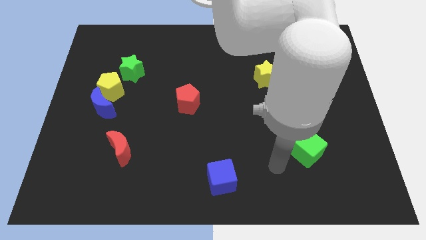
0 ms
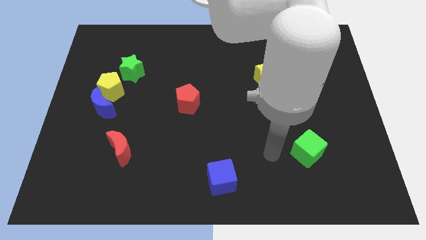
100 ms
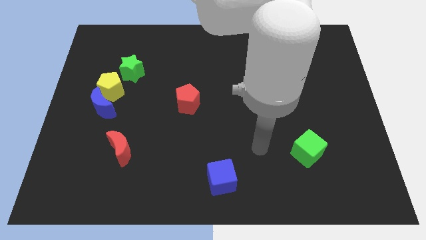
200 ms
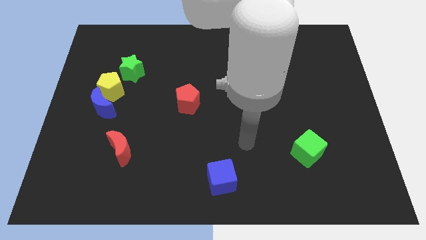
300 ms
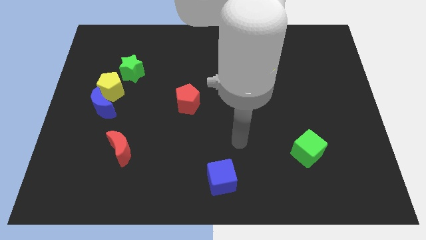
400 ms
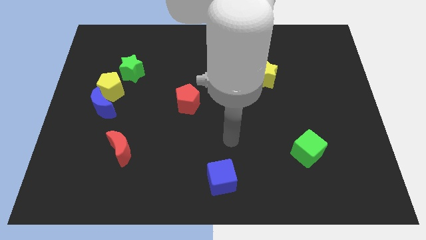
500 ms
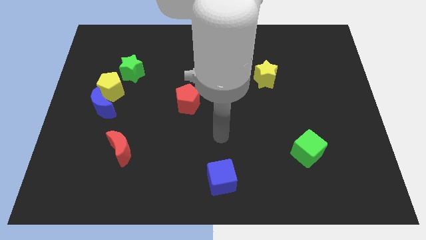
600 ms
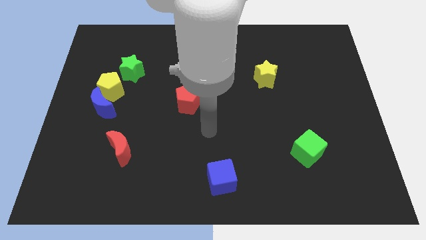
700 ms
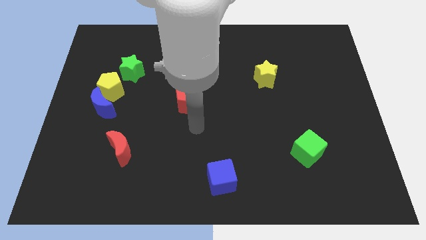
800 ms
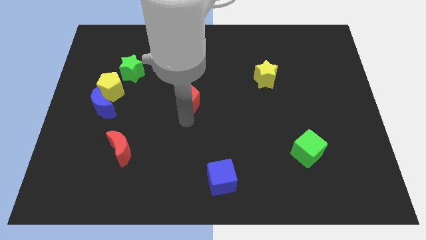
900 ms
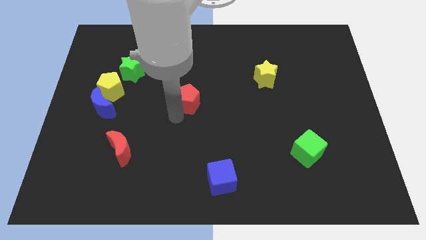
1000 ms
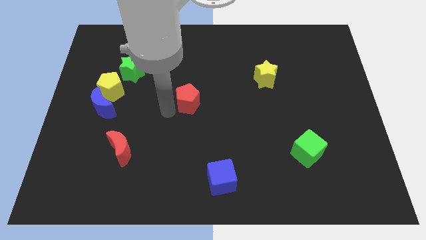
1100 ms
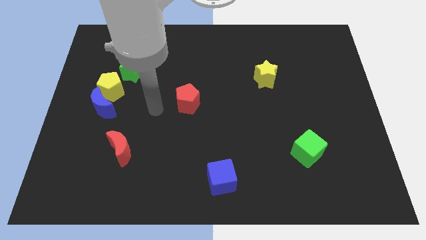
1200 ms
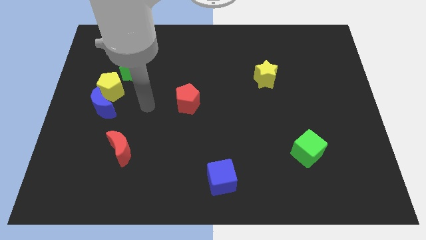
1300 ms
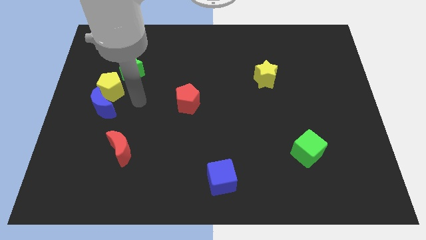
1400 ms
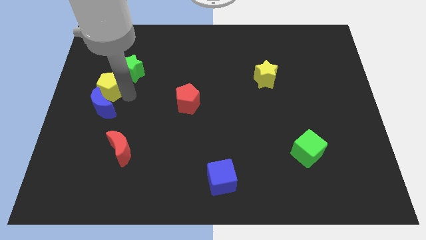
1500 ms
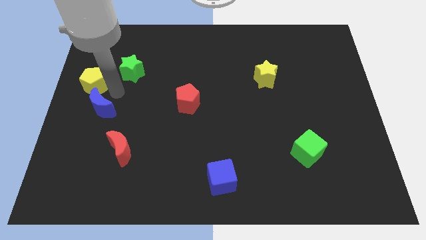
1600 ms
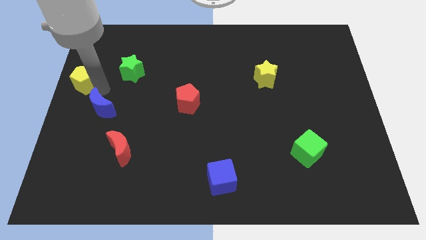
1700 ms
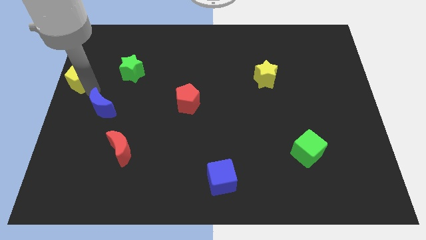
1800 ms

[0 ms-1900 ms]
pull the blue moon apart from the yellow pentagon

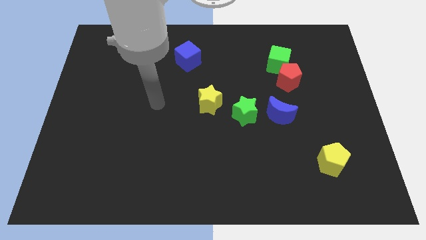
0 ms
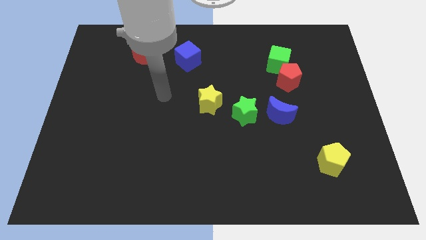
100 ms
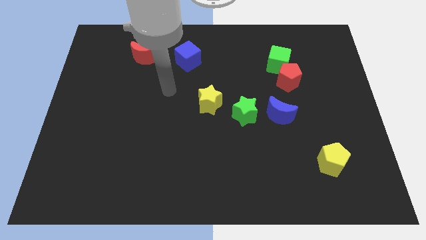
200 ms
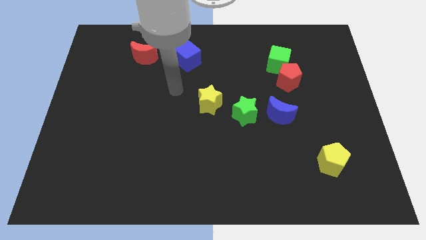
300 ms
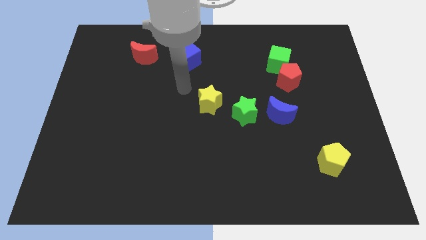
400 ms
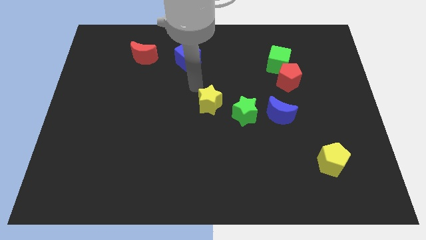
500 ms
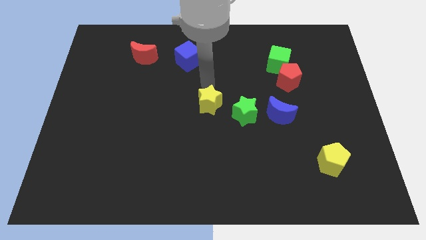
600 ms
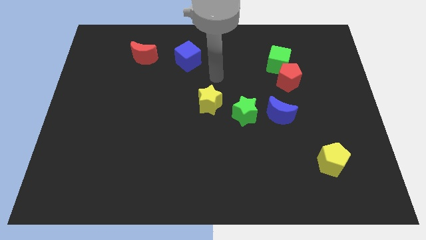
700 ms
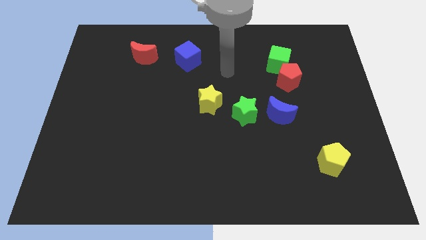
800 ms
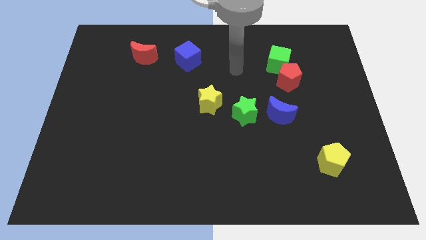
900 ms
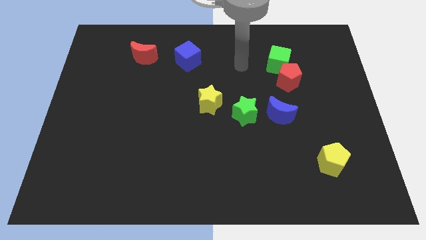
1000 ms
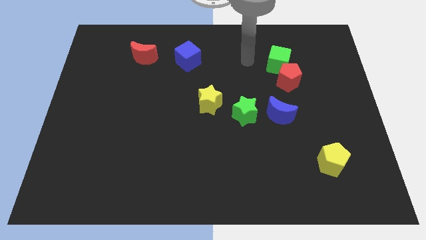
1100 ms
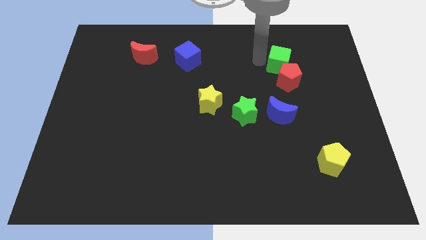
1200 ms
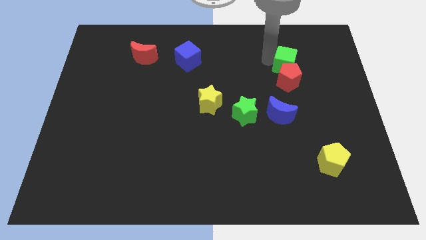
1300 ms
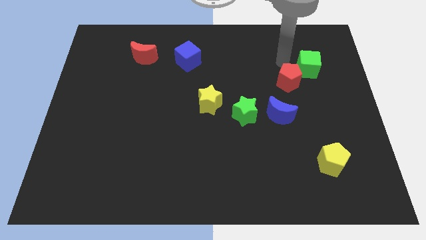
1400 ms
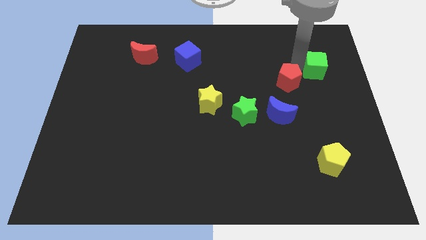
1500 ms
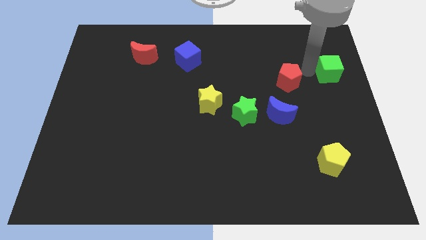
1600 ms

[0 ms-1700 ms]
separate the red pentagon from the green cube

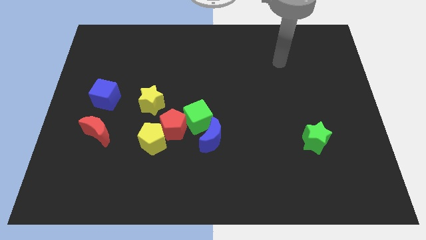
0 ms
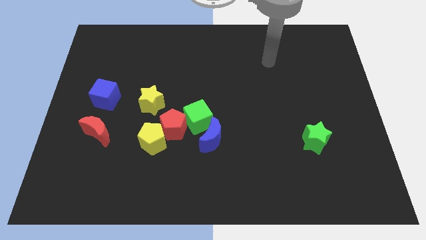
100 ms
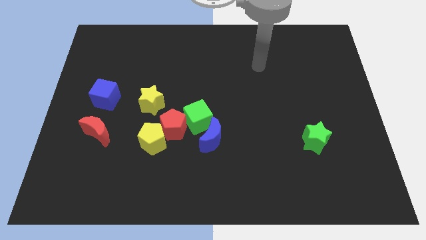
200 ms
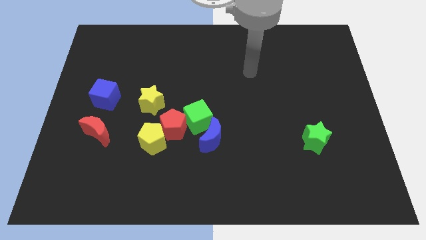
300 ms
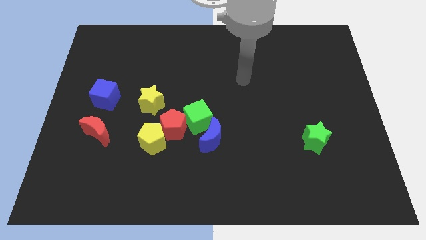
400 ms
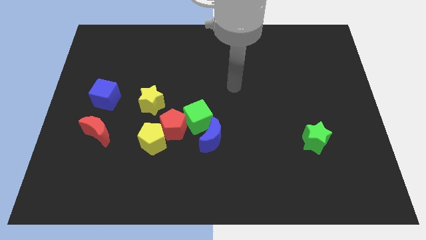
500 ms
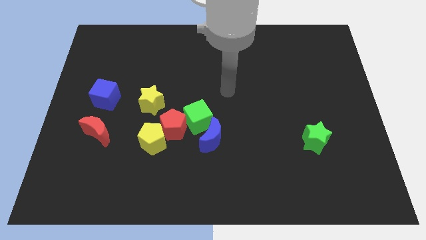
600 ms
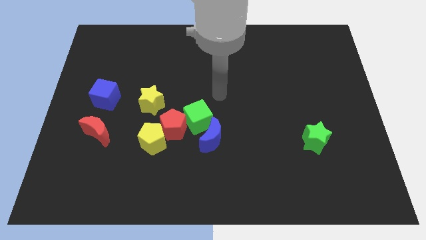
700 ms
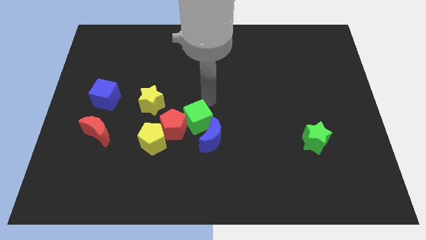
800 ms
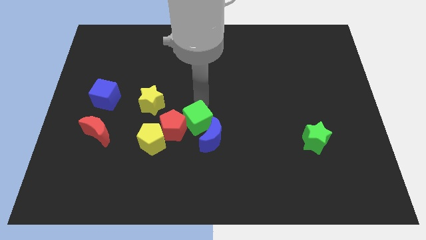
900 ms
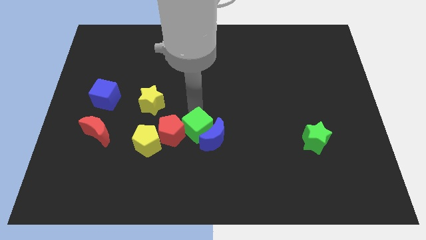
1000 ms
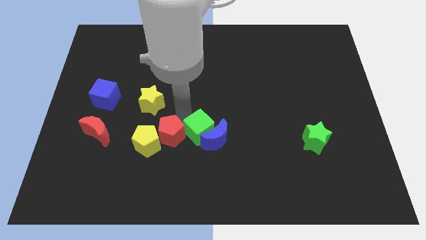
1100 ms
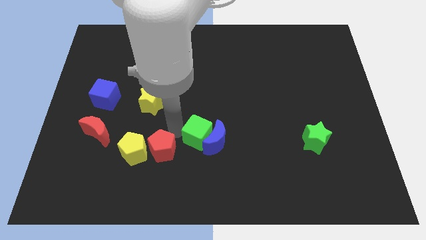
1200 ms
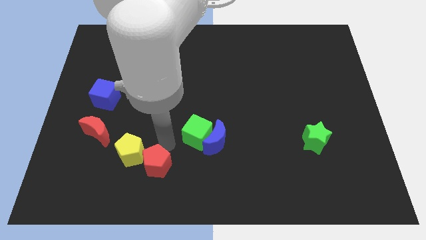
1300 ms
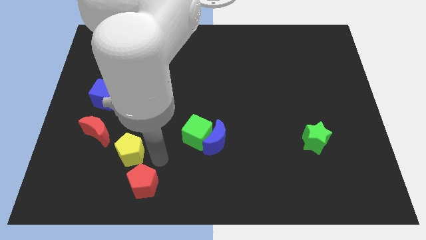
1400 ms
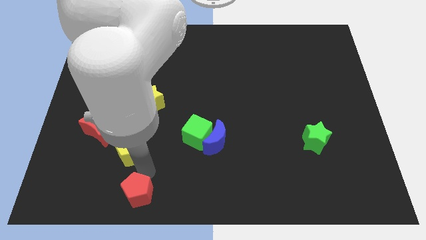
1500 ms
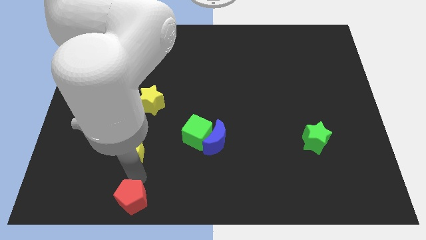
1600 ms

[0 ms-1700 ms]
move the yellow pentagon away from the red pentagon

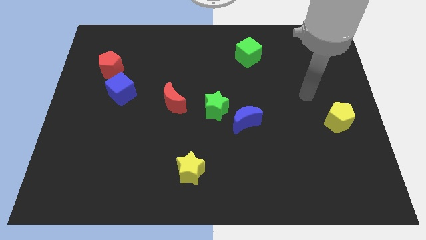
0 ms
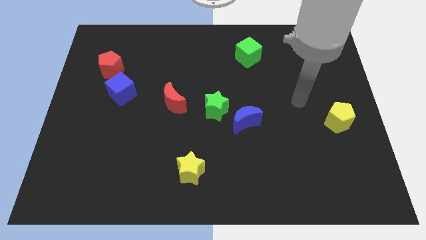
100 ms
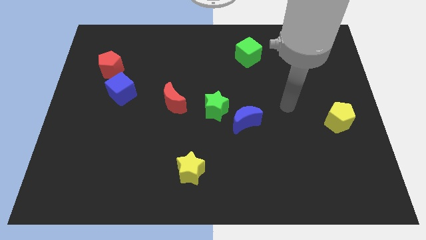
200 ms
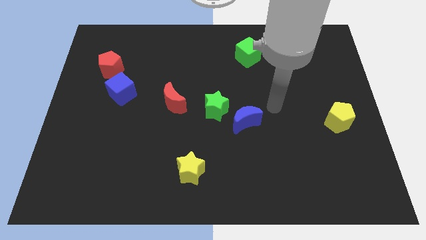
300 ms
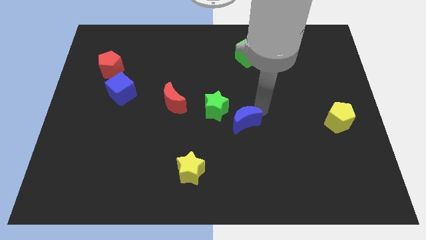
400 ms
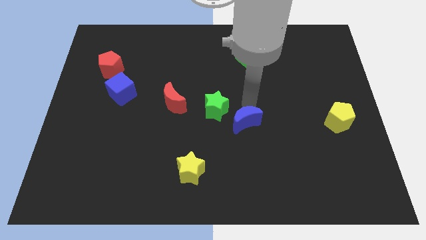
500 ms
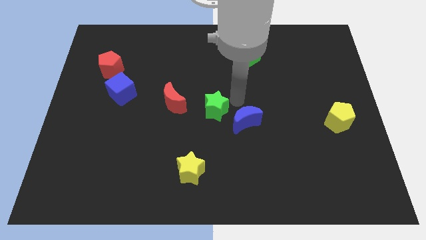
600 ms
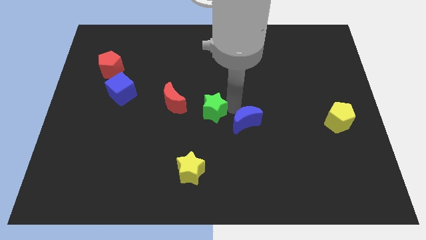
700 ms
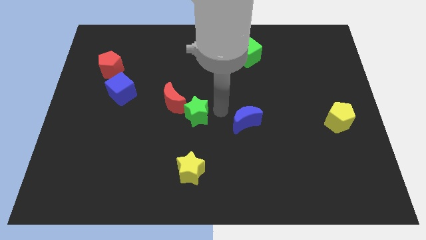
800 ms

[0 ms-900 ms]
pull the blue moon apart from the green star

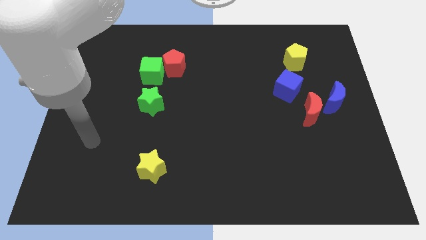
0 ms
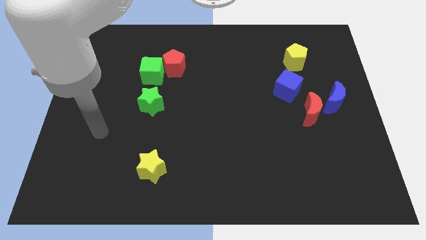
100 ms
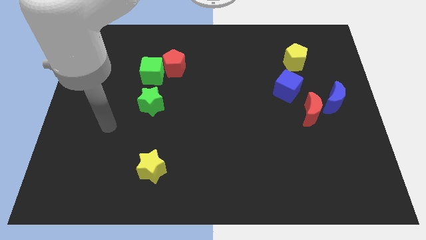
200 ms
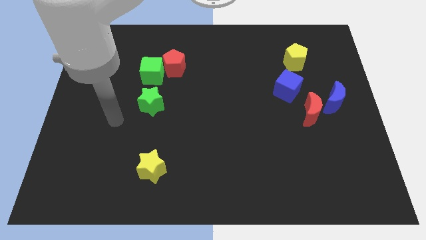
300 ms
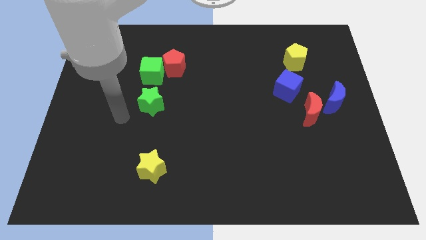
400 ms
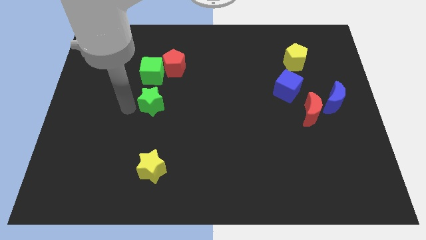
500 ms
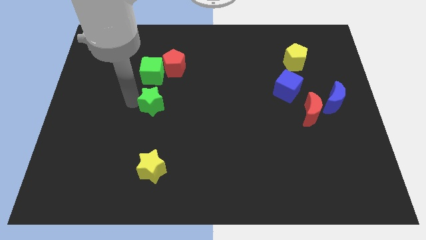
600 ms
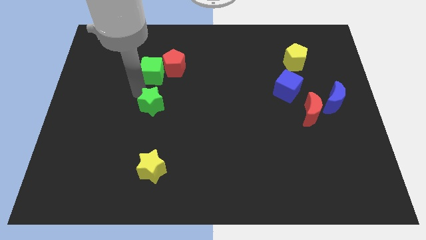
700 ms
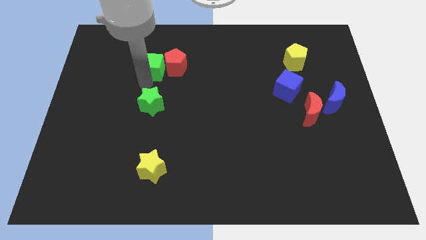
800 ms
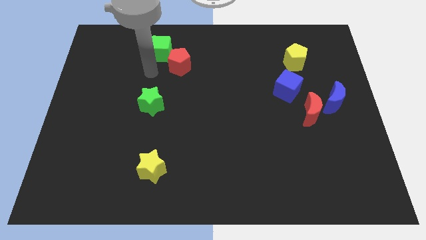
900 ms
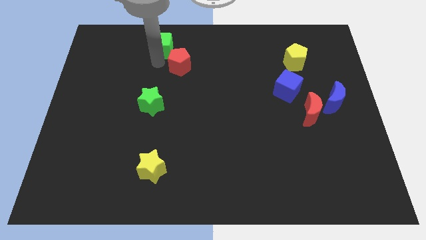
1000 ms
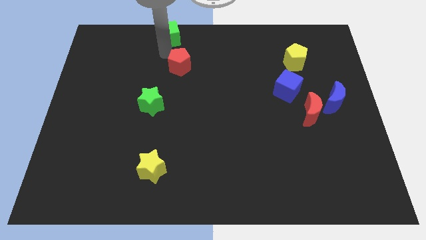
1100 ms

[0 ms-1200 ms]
move the red pentagon away from the green cube

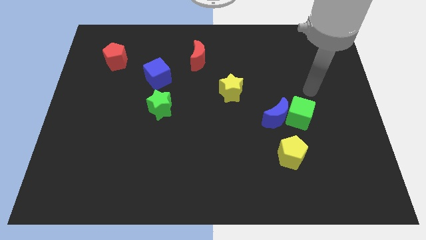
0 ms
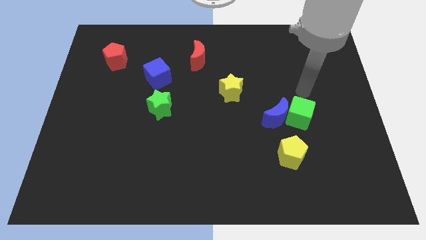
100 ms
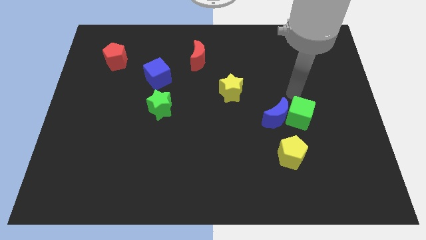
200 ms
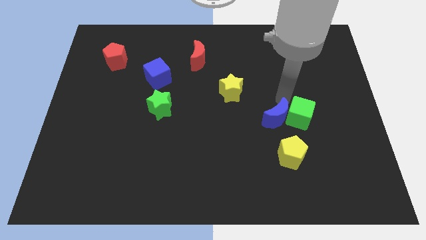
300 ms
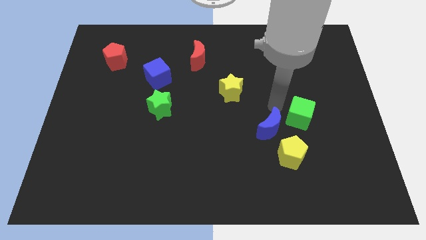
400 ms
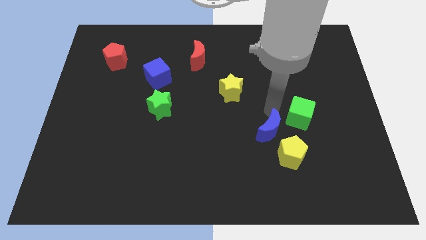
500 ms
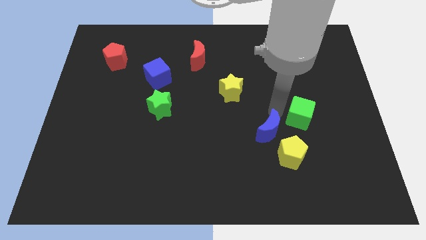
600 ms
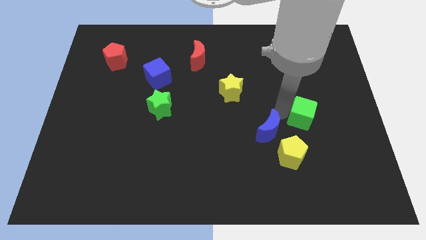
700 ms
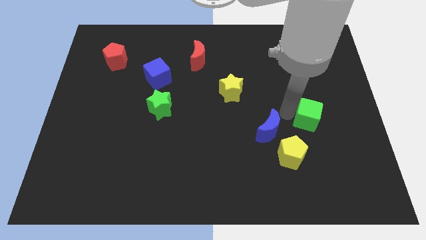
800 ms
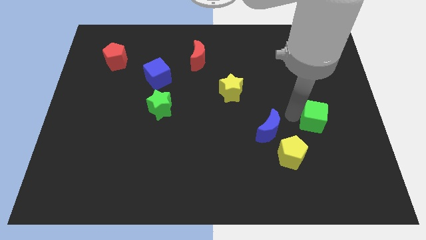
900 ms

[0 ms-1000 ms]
separate the green cube from the blue moon

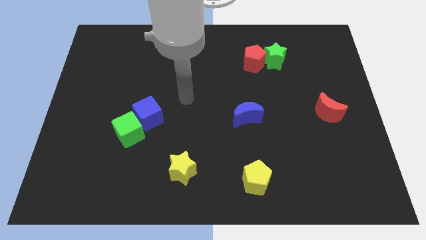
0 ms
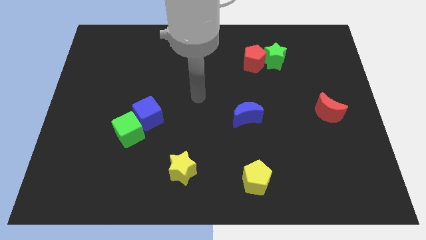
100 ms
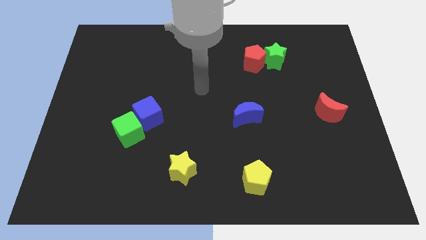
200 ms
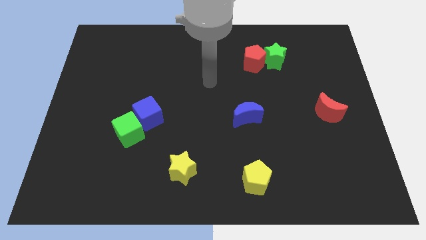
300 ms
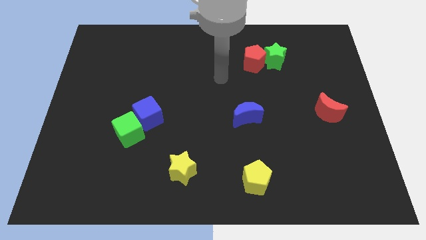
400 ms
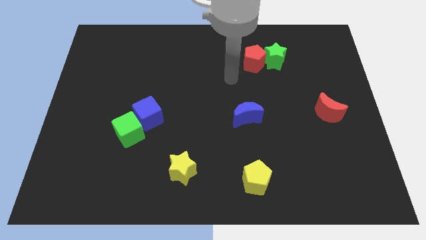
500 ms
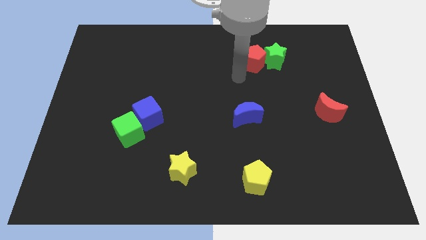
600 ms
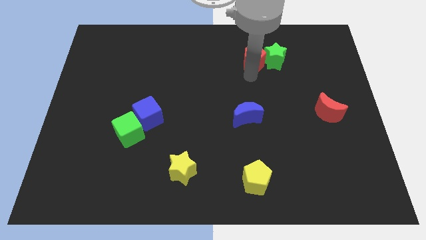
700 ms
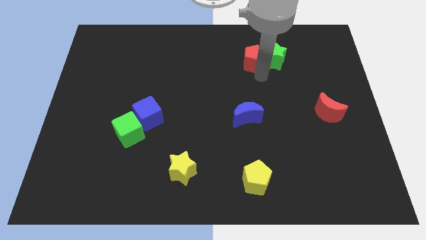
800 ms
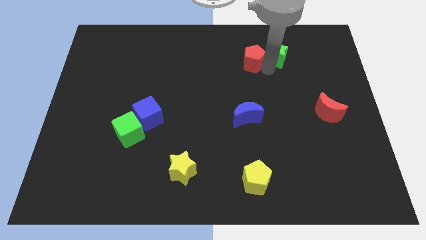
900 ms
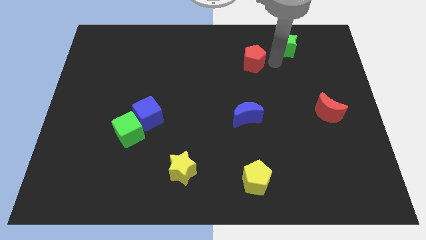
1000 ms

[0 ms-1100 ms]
pull the red pentagon apart from the green star
